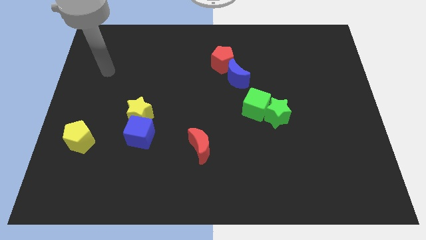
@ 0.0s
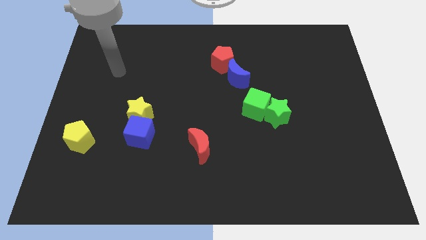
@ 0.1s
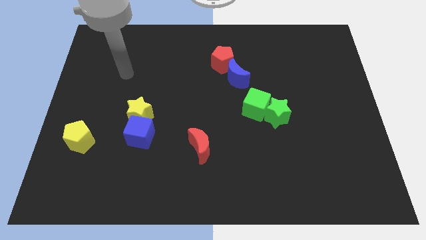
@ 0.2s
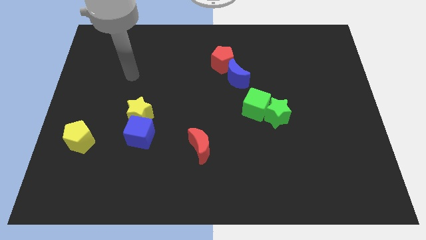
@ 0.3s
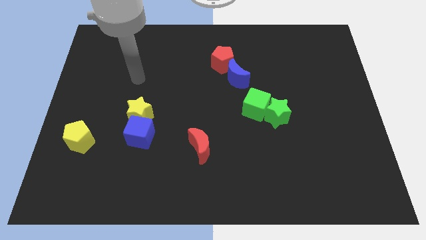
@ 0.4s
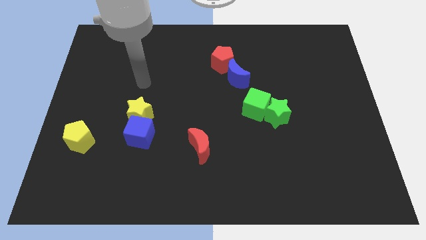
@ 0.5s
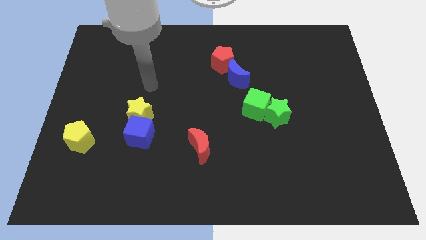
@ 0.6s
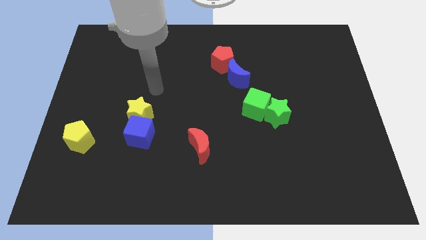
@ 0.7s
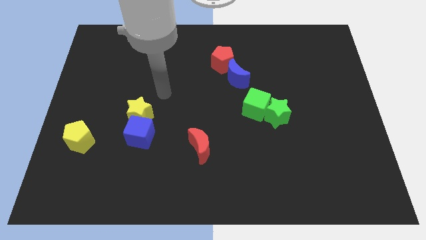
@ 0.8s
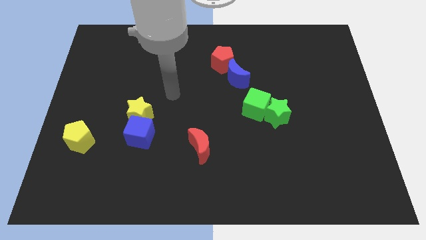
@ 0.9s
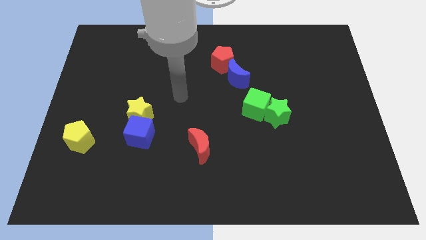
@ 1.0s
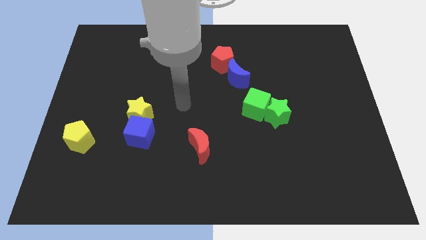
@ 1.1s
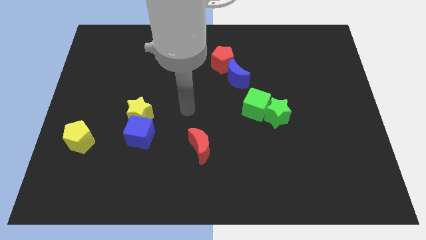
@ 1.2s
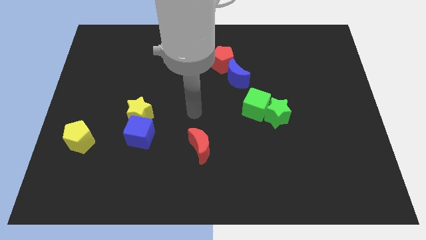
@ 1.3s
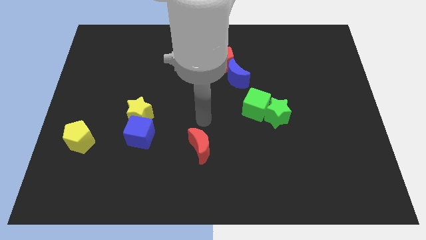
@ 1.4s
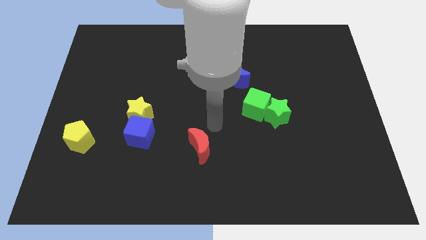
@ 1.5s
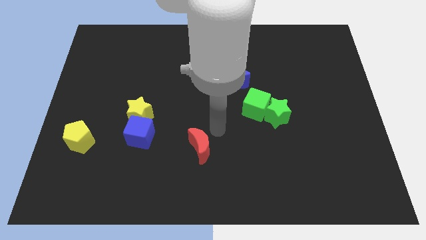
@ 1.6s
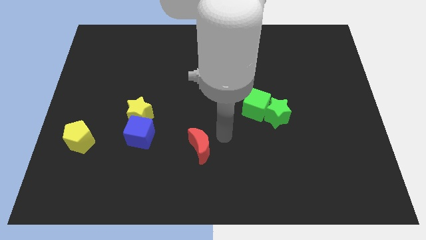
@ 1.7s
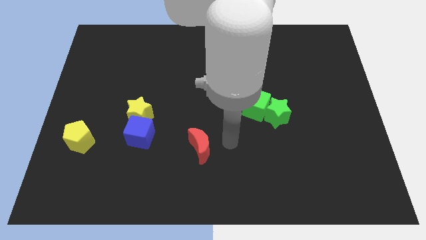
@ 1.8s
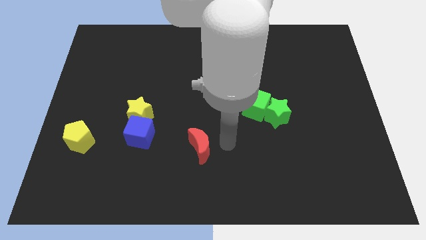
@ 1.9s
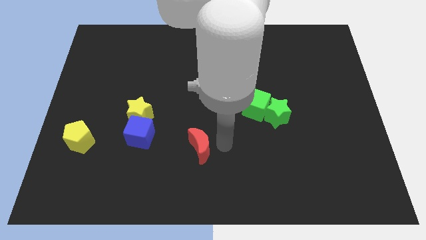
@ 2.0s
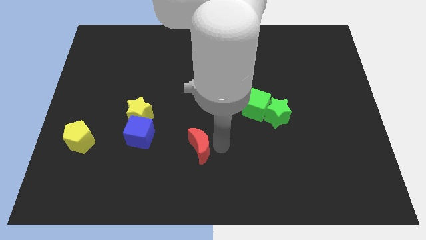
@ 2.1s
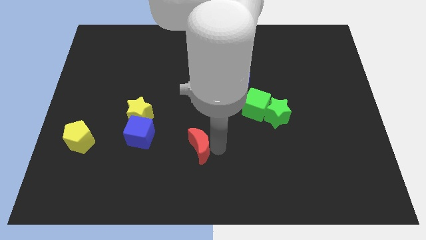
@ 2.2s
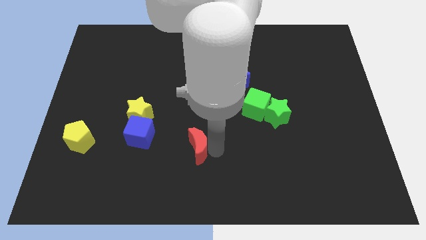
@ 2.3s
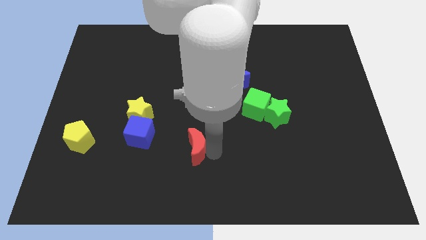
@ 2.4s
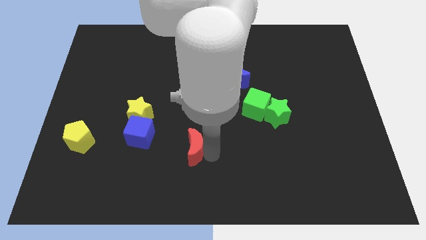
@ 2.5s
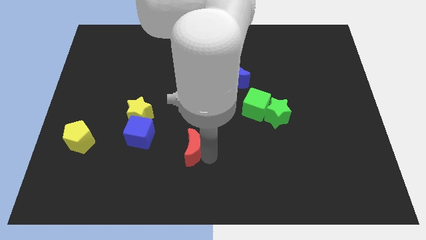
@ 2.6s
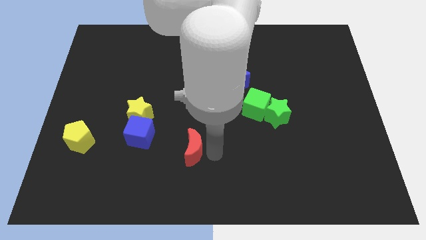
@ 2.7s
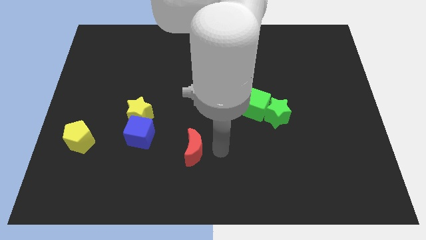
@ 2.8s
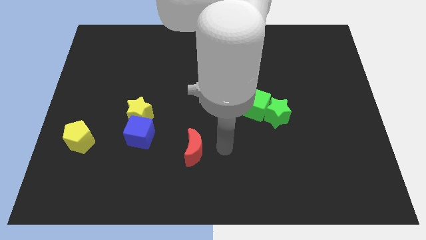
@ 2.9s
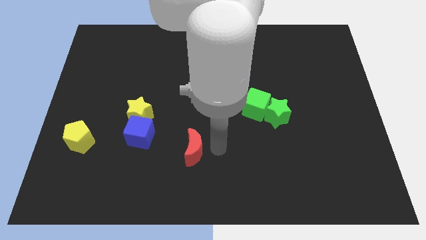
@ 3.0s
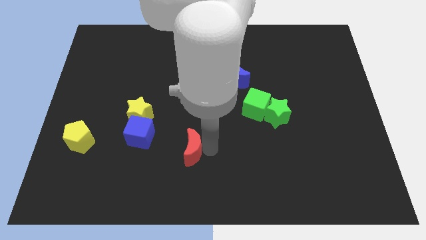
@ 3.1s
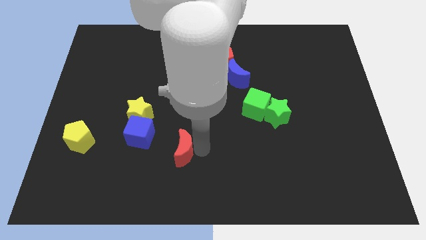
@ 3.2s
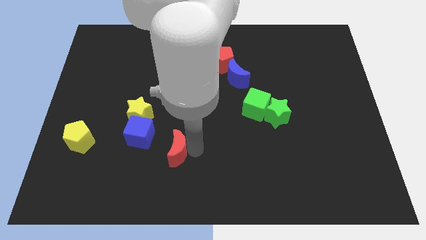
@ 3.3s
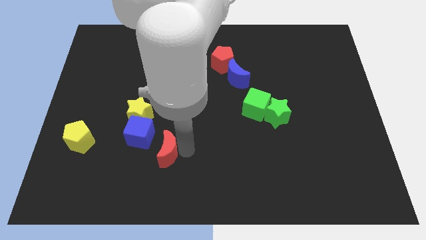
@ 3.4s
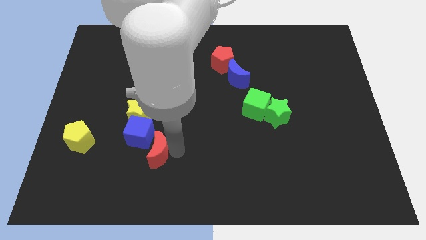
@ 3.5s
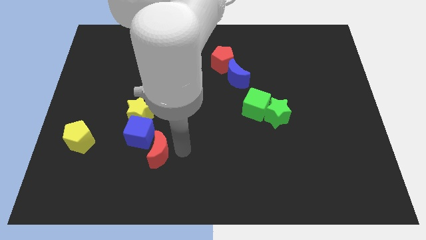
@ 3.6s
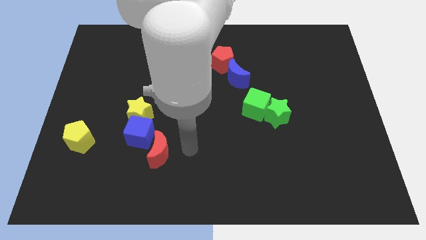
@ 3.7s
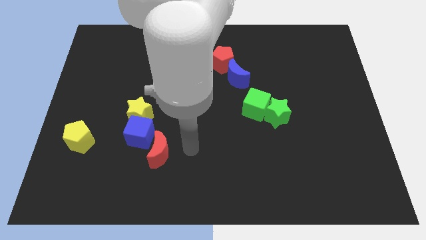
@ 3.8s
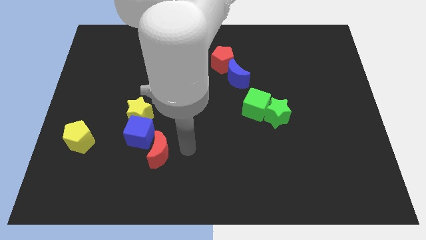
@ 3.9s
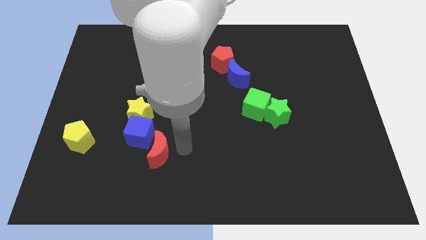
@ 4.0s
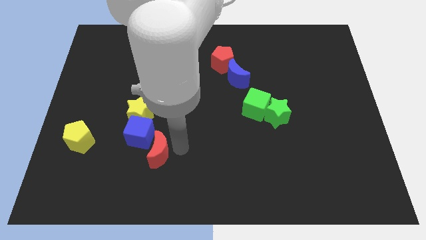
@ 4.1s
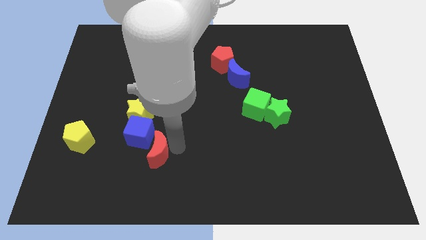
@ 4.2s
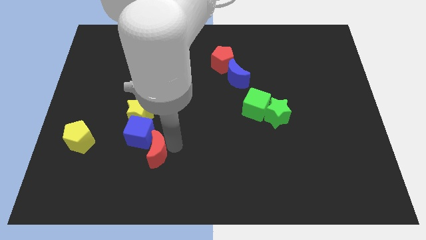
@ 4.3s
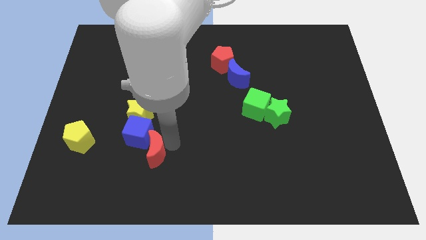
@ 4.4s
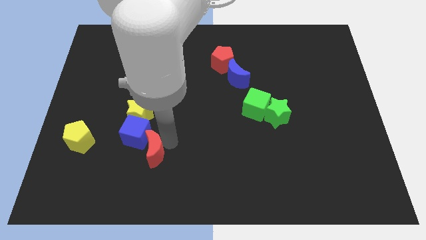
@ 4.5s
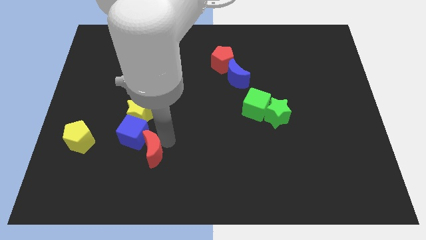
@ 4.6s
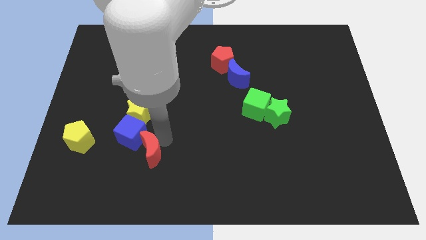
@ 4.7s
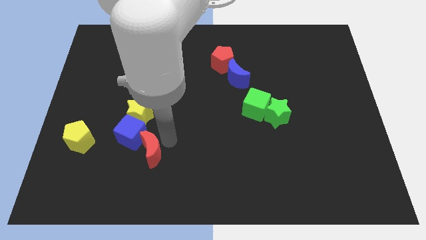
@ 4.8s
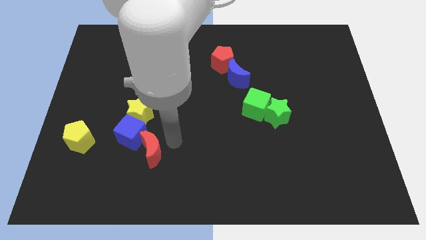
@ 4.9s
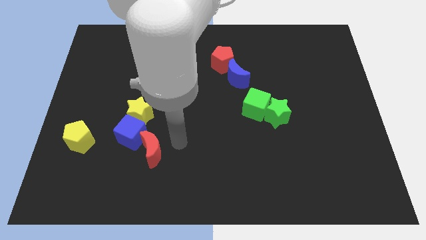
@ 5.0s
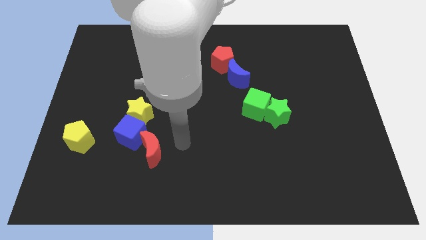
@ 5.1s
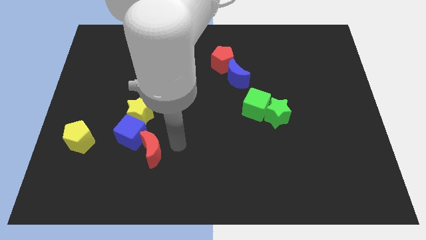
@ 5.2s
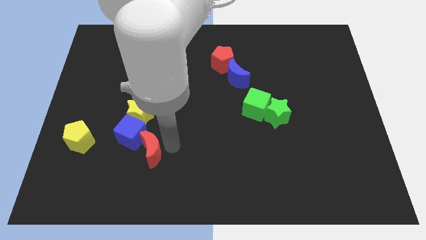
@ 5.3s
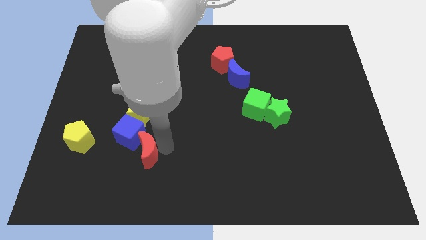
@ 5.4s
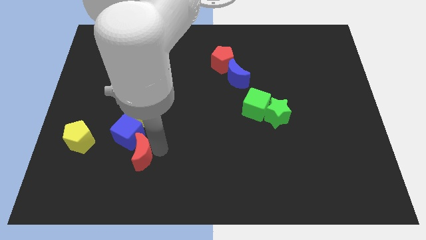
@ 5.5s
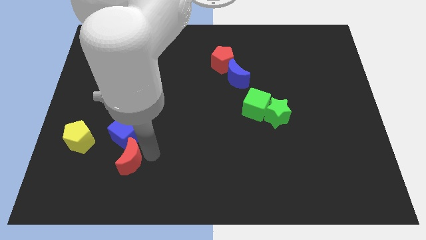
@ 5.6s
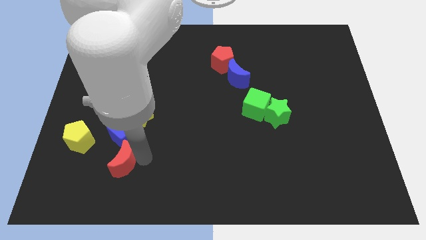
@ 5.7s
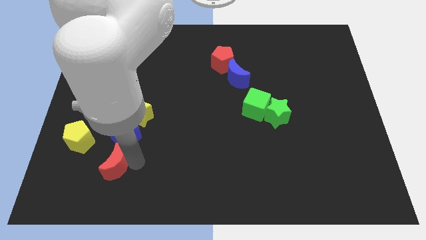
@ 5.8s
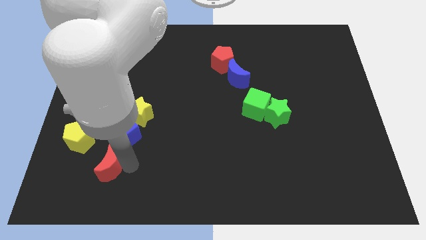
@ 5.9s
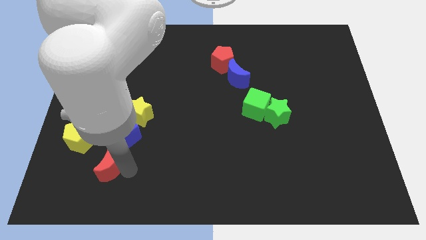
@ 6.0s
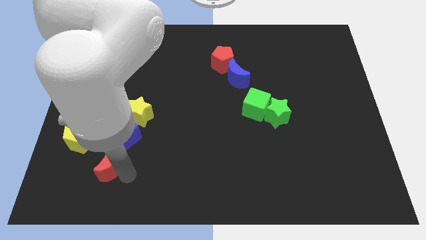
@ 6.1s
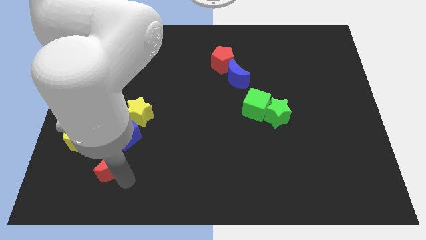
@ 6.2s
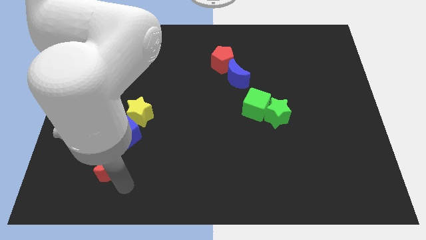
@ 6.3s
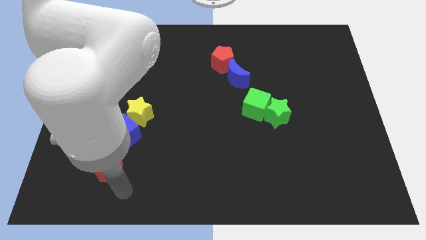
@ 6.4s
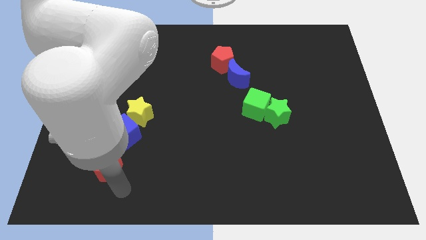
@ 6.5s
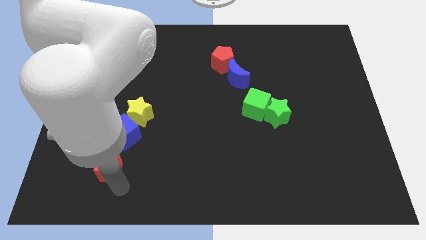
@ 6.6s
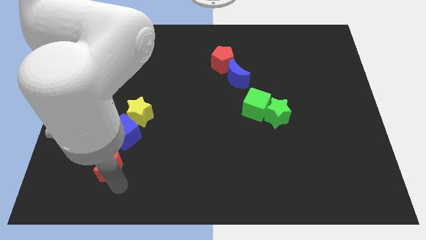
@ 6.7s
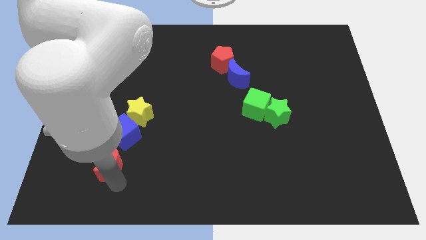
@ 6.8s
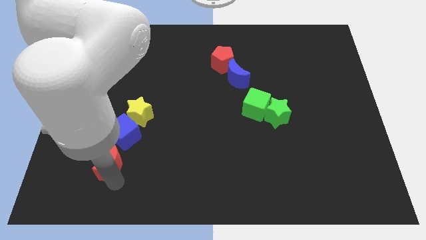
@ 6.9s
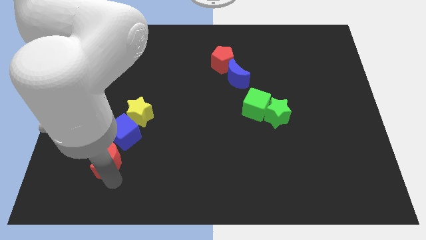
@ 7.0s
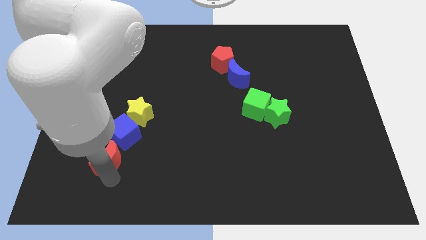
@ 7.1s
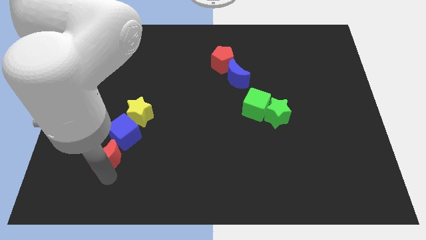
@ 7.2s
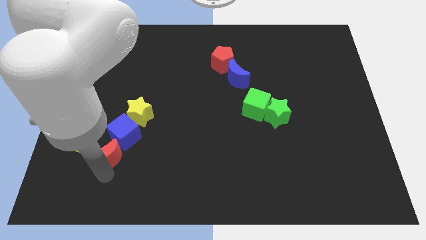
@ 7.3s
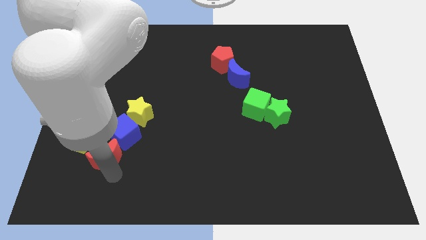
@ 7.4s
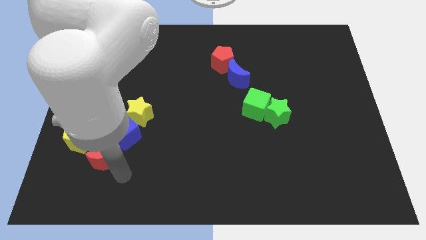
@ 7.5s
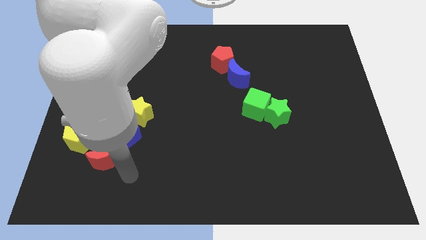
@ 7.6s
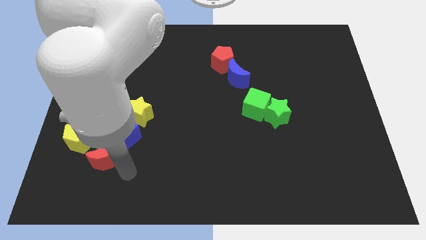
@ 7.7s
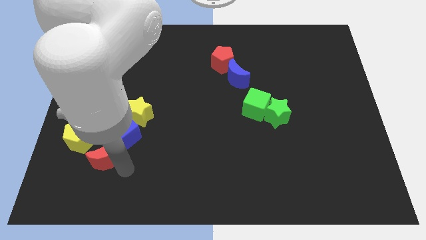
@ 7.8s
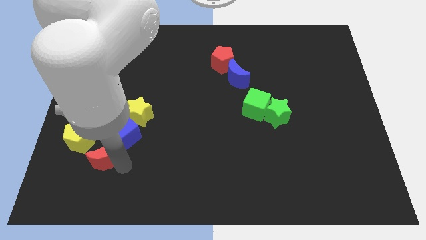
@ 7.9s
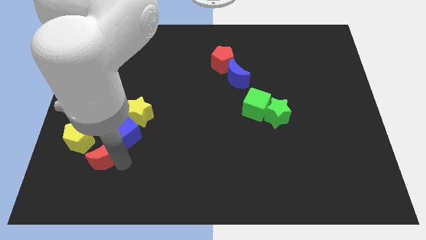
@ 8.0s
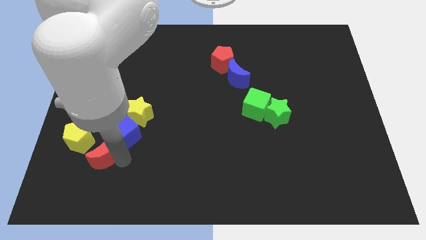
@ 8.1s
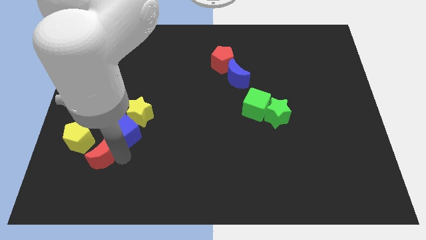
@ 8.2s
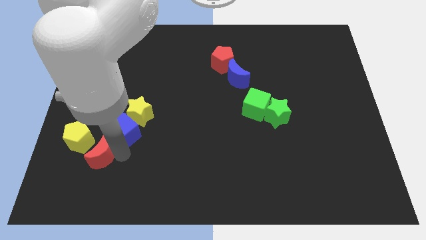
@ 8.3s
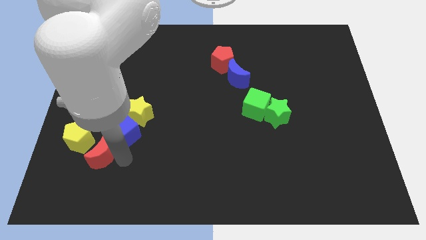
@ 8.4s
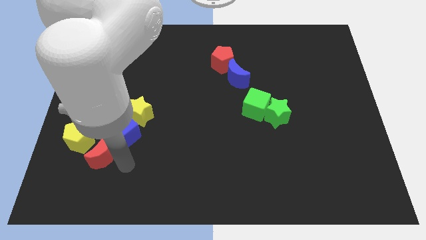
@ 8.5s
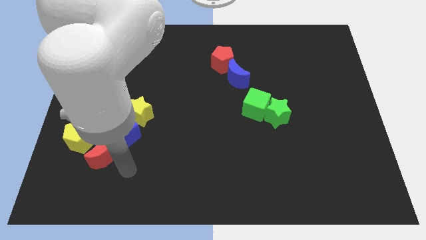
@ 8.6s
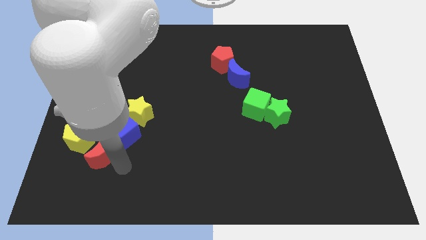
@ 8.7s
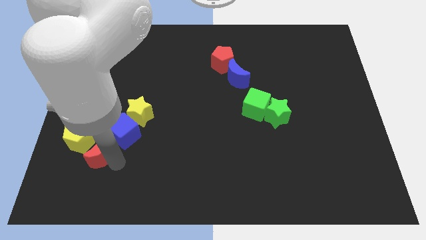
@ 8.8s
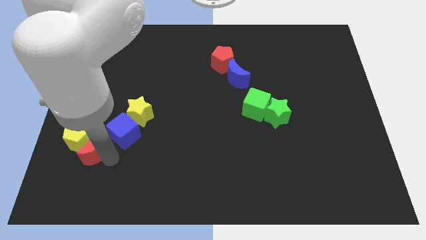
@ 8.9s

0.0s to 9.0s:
slide the red moon towards the yellow pentagon
